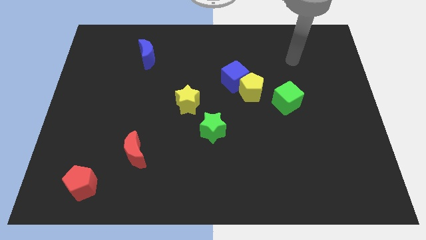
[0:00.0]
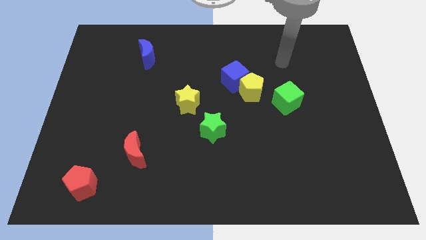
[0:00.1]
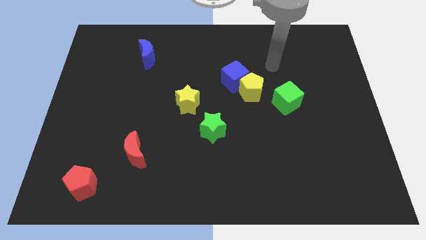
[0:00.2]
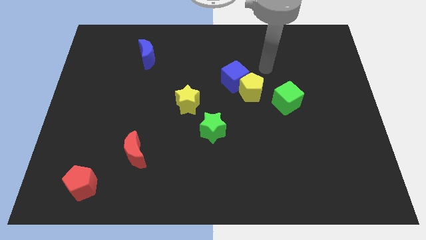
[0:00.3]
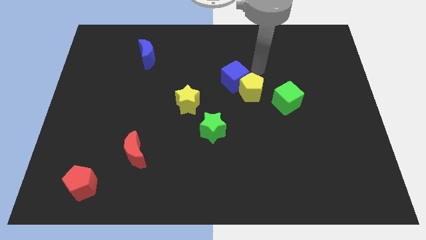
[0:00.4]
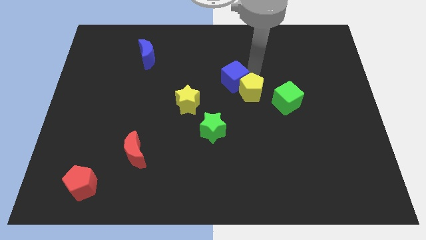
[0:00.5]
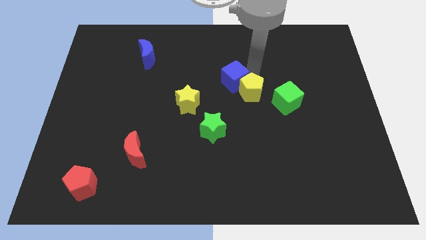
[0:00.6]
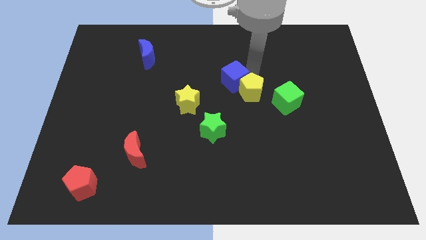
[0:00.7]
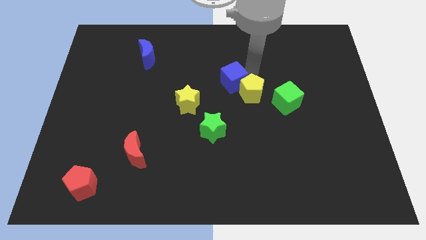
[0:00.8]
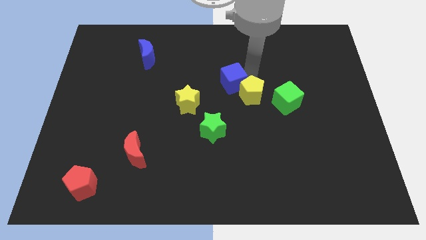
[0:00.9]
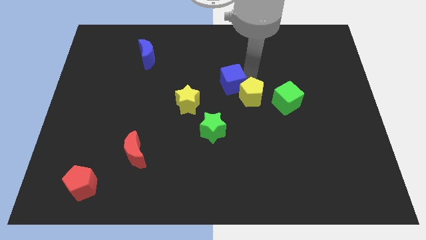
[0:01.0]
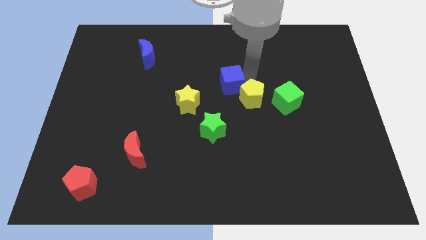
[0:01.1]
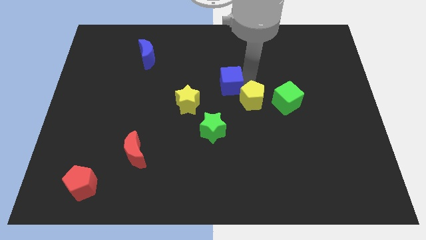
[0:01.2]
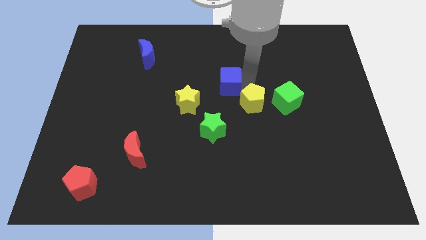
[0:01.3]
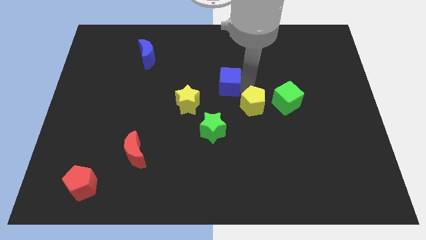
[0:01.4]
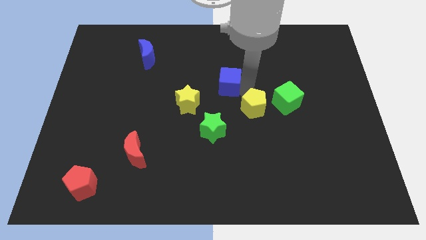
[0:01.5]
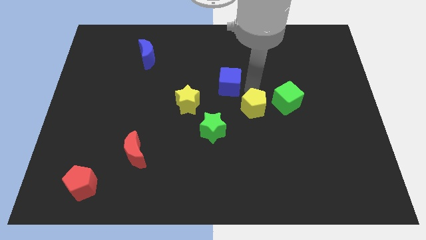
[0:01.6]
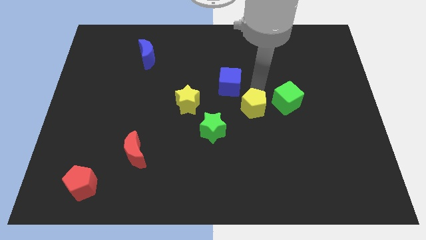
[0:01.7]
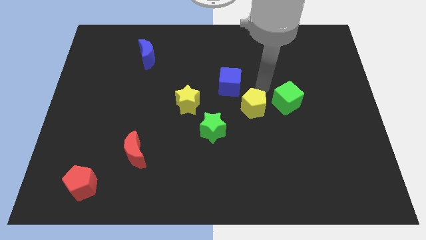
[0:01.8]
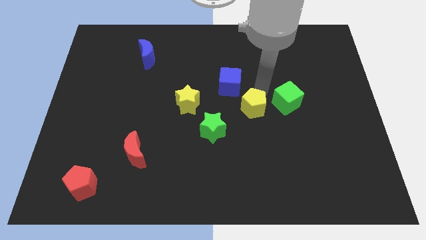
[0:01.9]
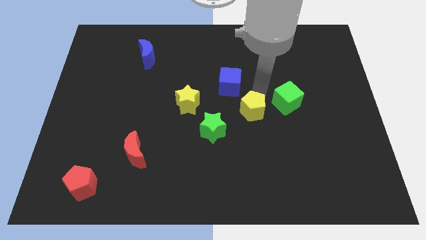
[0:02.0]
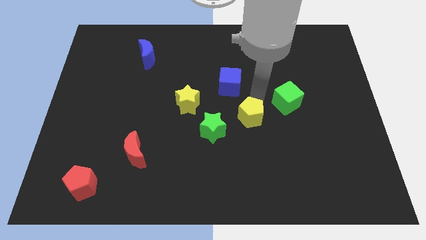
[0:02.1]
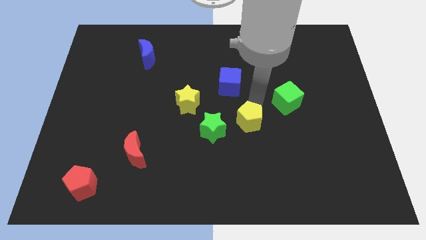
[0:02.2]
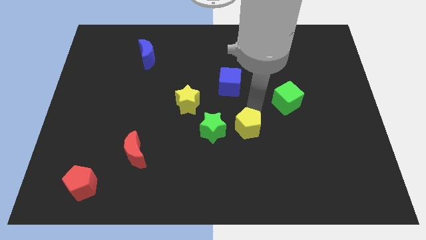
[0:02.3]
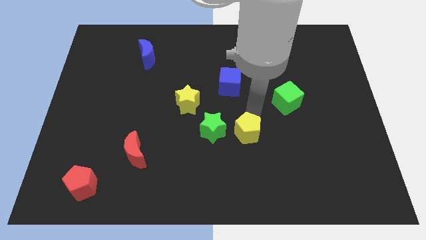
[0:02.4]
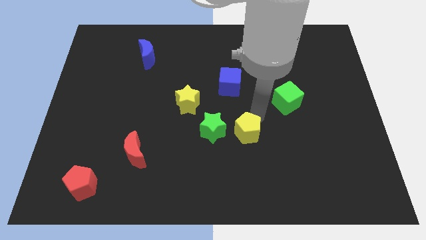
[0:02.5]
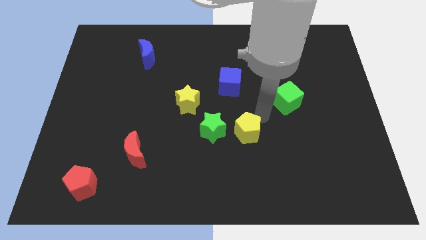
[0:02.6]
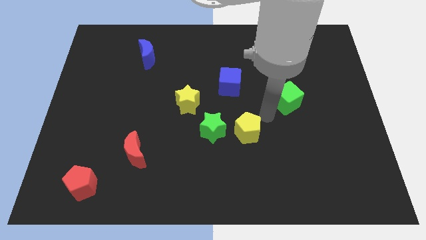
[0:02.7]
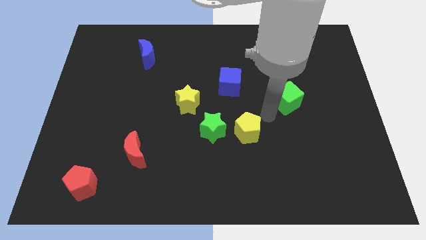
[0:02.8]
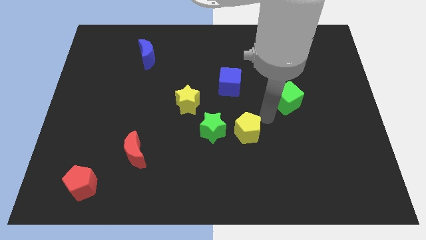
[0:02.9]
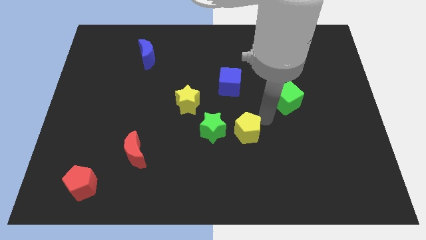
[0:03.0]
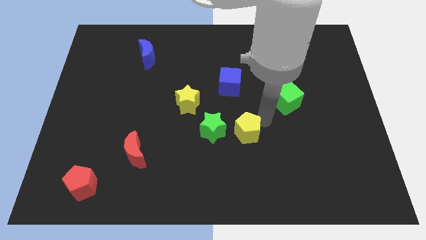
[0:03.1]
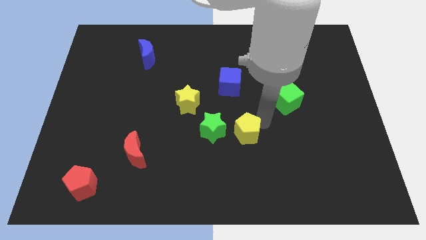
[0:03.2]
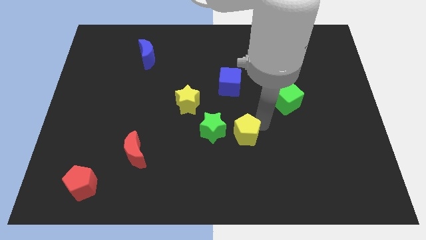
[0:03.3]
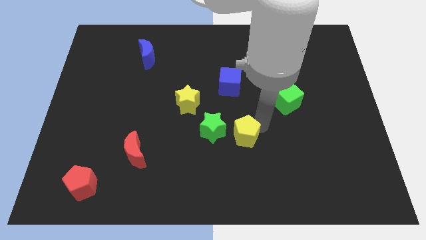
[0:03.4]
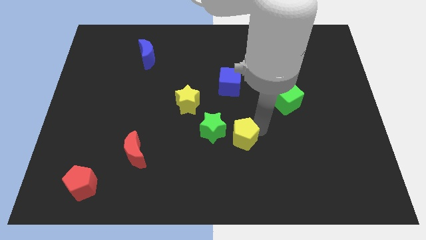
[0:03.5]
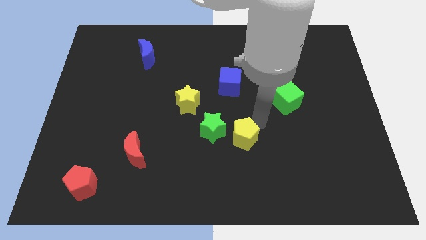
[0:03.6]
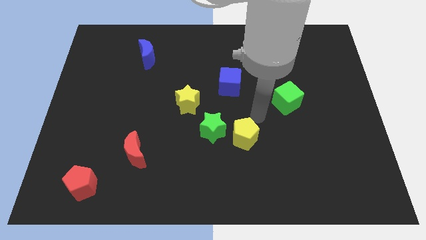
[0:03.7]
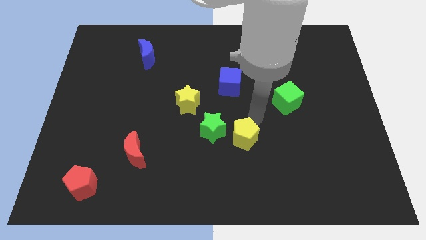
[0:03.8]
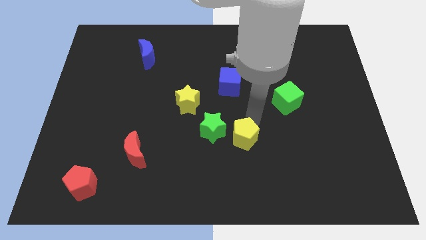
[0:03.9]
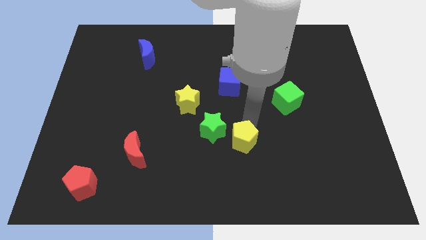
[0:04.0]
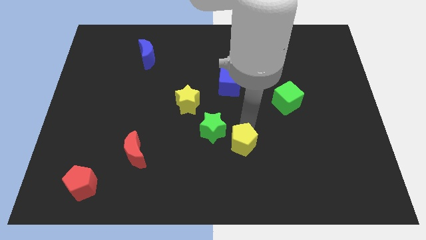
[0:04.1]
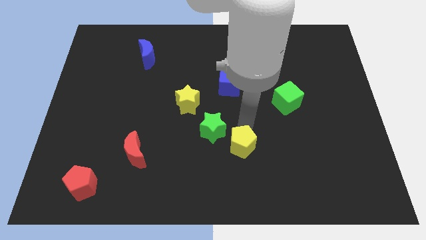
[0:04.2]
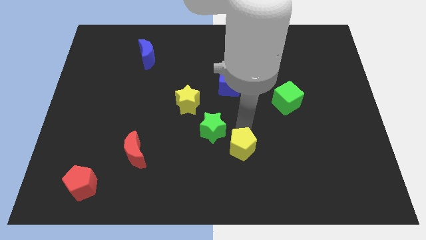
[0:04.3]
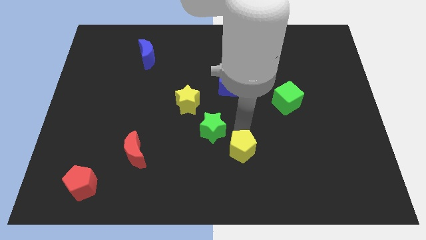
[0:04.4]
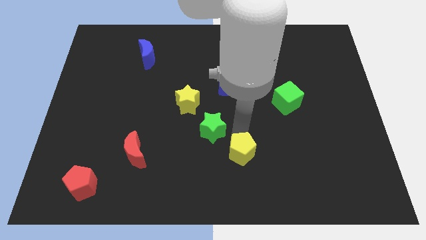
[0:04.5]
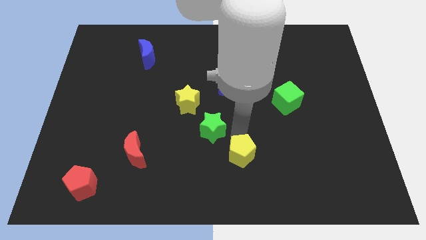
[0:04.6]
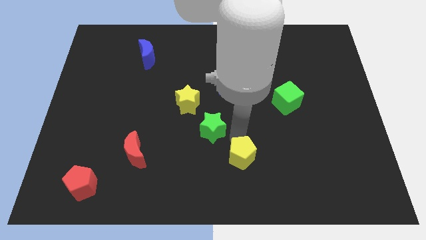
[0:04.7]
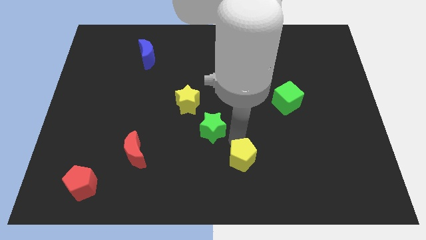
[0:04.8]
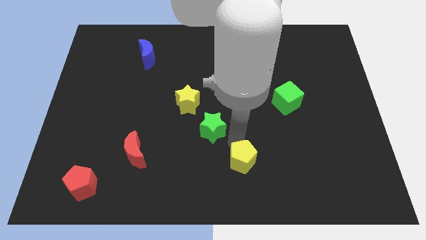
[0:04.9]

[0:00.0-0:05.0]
push the yellow pentagon to the bottom side

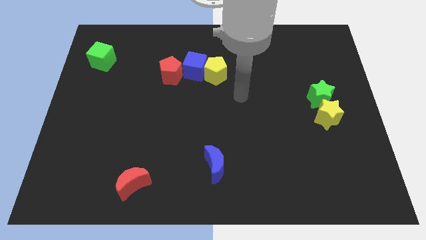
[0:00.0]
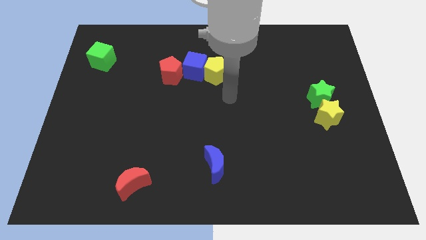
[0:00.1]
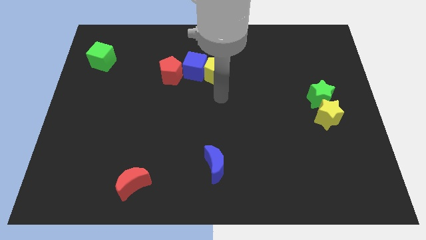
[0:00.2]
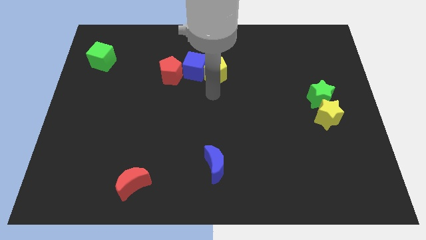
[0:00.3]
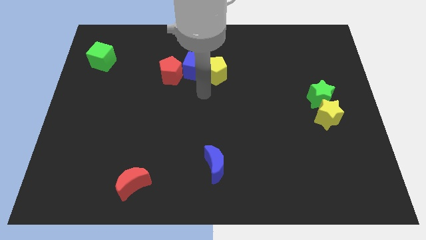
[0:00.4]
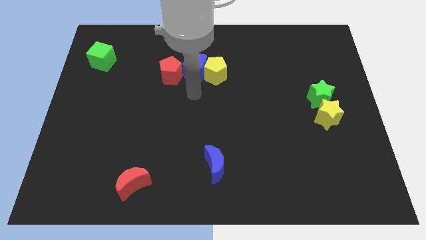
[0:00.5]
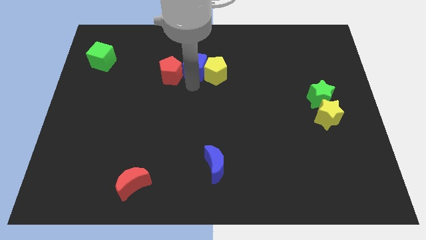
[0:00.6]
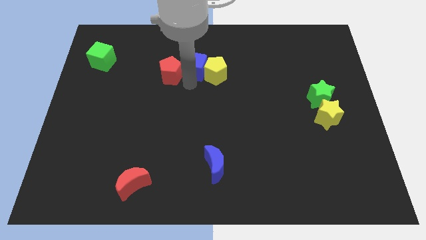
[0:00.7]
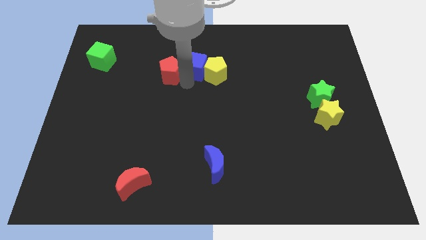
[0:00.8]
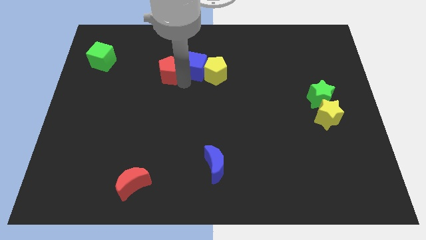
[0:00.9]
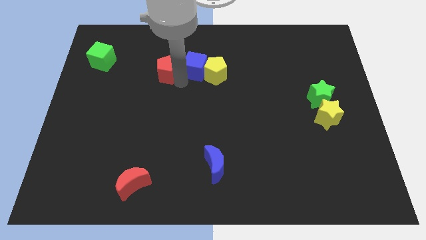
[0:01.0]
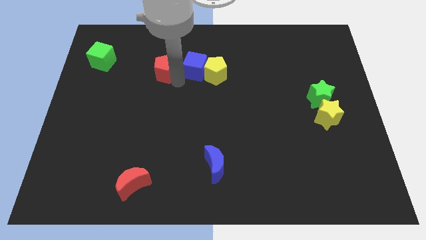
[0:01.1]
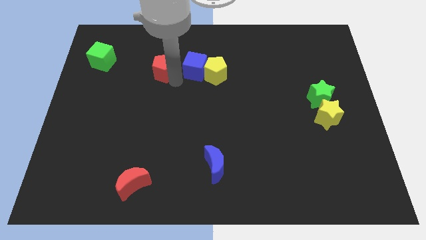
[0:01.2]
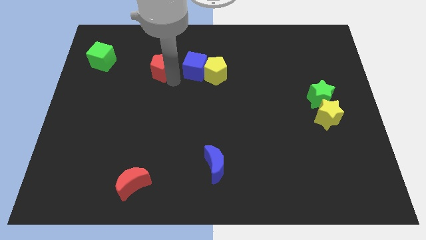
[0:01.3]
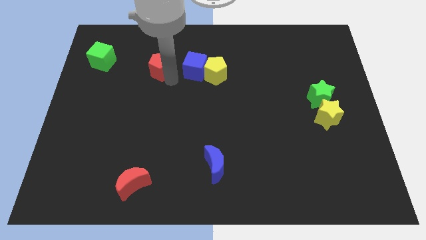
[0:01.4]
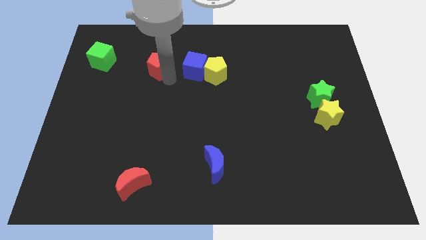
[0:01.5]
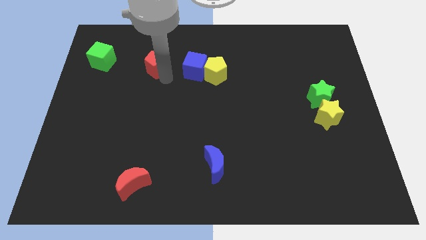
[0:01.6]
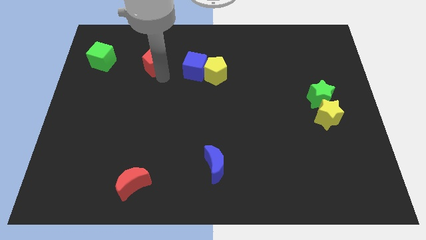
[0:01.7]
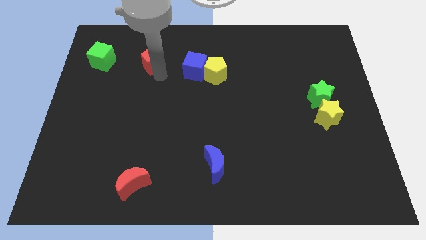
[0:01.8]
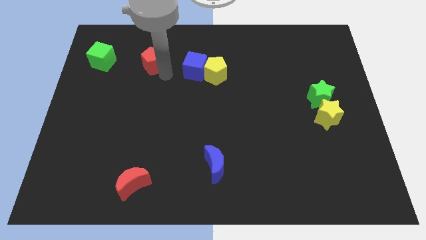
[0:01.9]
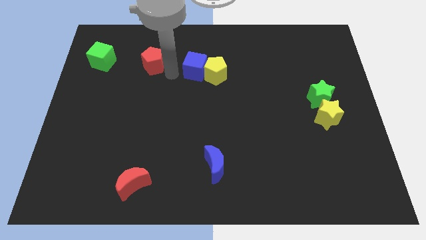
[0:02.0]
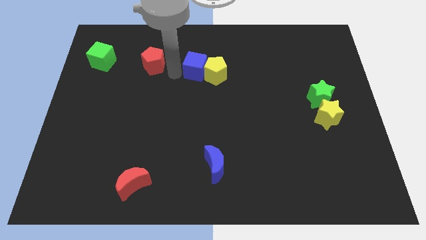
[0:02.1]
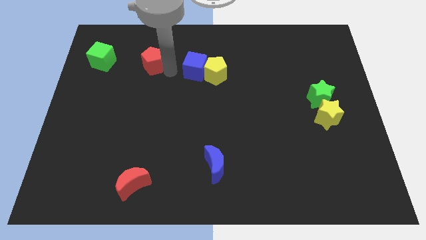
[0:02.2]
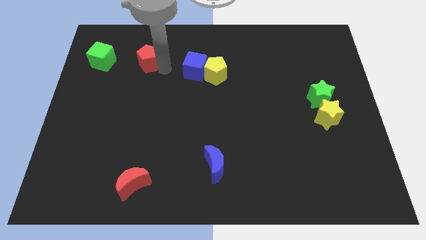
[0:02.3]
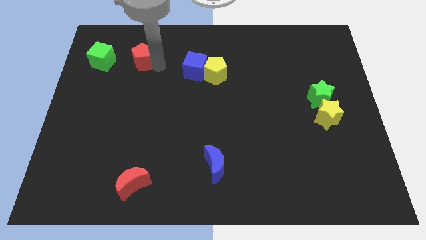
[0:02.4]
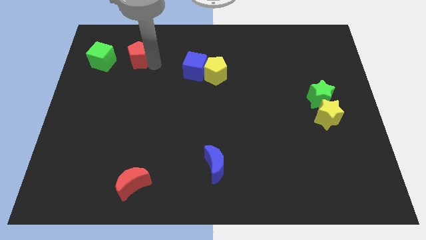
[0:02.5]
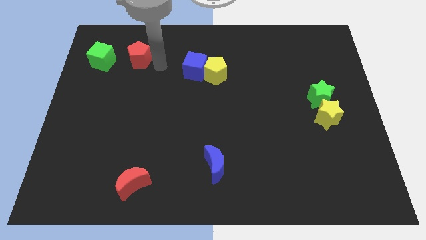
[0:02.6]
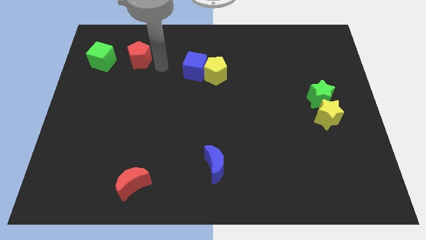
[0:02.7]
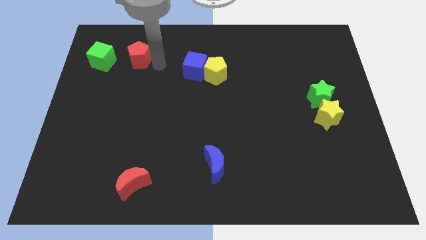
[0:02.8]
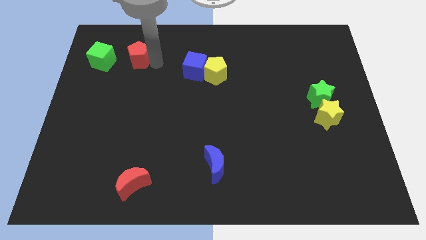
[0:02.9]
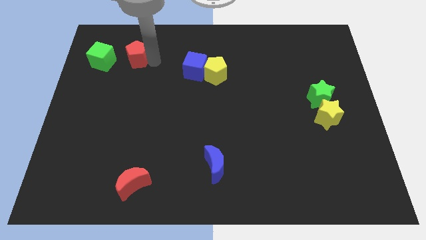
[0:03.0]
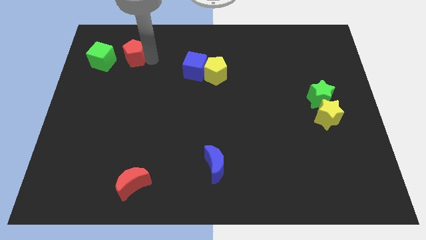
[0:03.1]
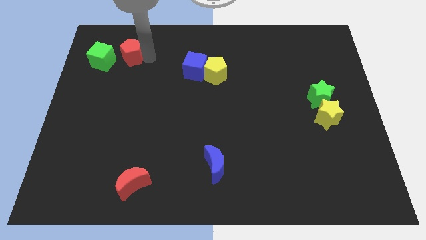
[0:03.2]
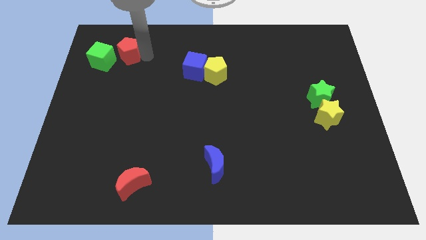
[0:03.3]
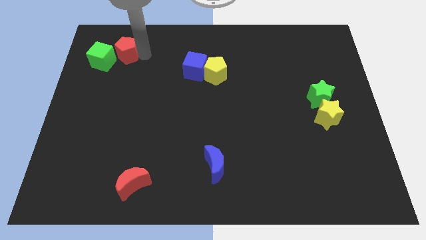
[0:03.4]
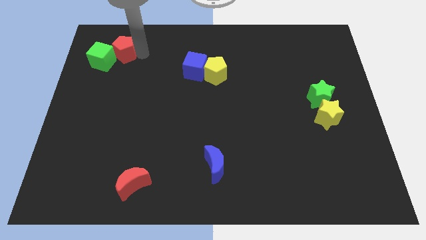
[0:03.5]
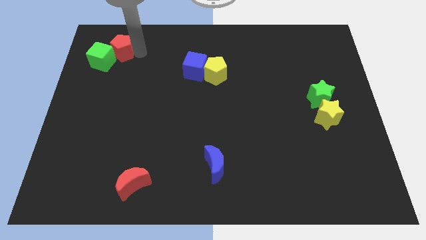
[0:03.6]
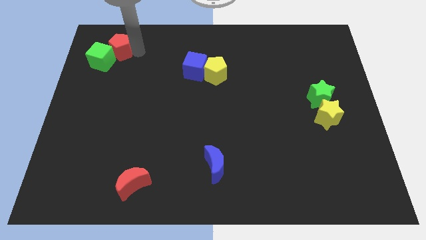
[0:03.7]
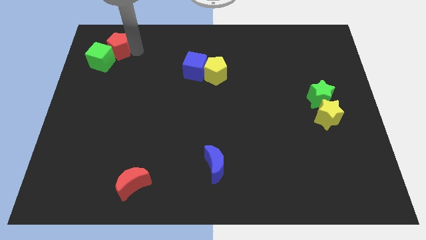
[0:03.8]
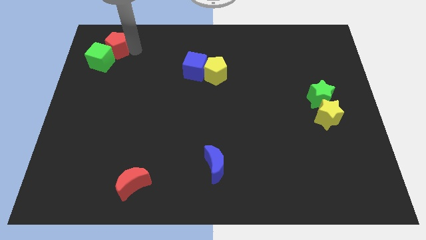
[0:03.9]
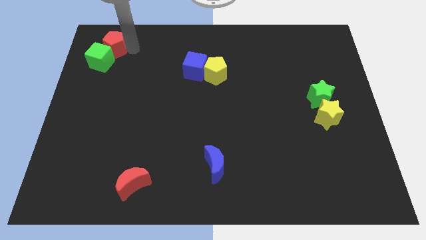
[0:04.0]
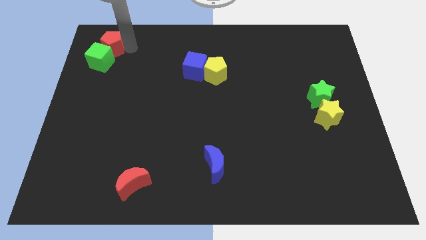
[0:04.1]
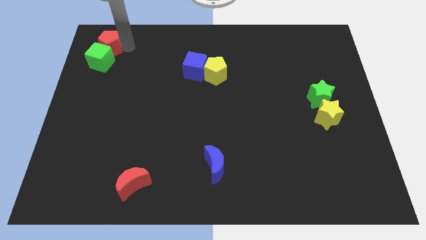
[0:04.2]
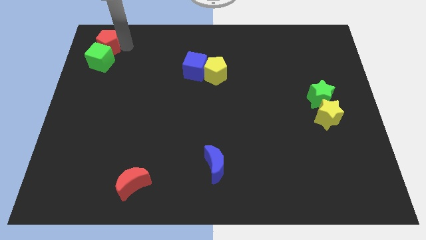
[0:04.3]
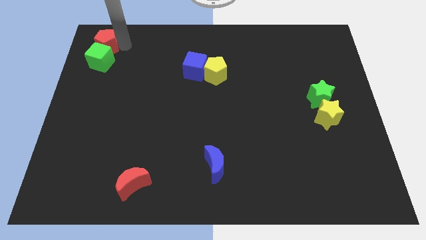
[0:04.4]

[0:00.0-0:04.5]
put the red pentagon to the upper left corner
